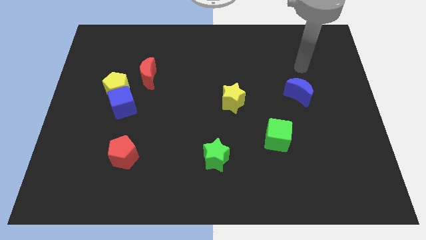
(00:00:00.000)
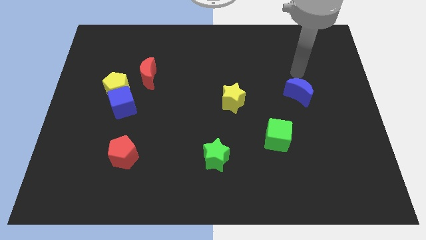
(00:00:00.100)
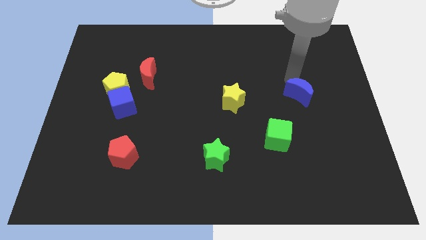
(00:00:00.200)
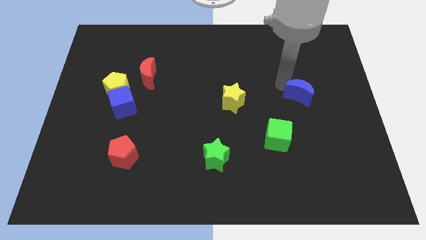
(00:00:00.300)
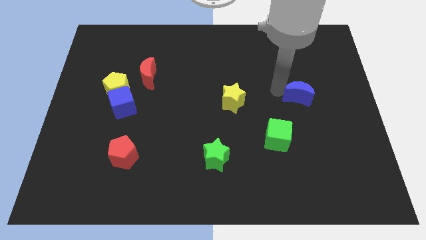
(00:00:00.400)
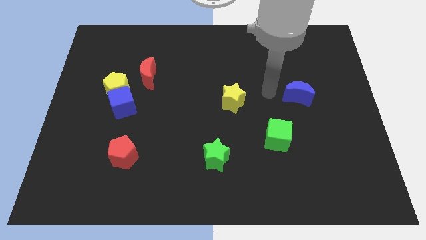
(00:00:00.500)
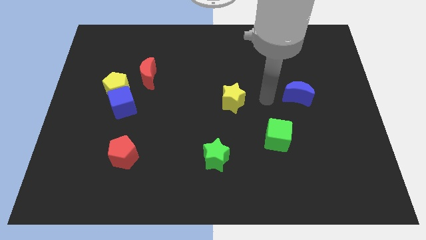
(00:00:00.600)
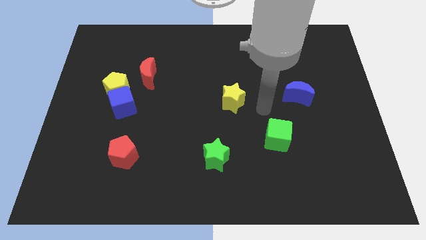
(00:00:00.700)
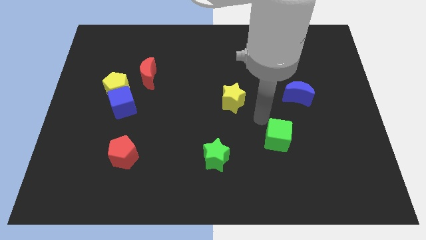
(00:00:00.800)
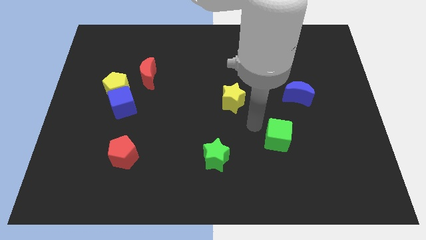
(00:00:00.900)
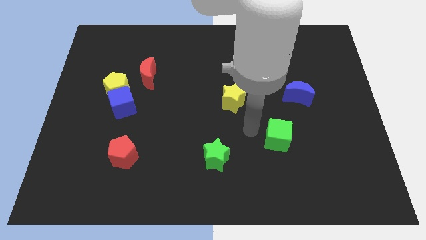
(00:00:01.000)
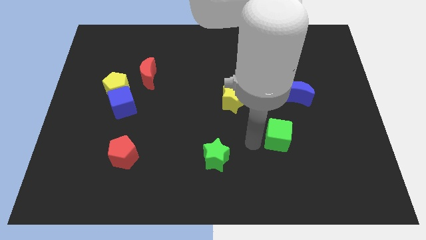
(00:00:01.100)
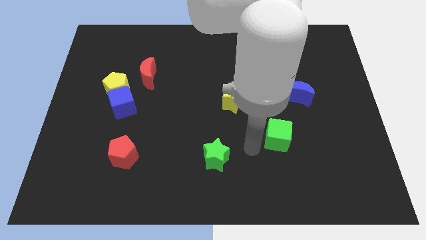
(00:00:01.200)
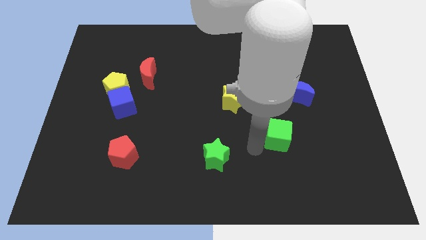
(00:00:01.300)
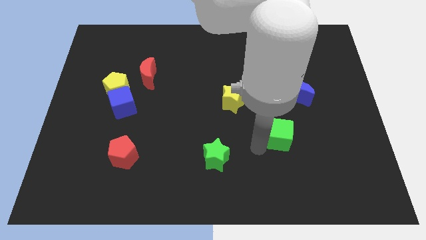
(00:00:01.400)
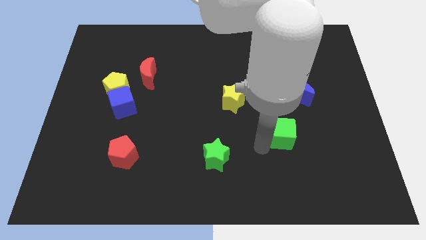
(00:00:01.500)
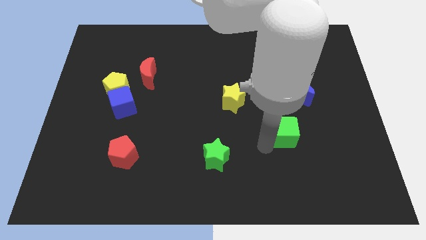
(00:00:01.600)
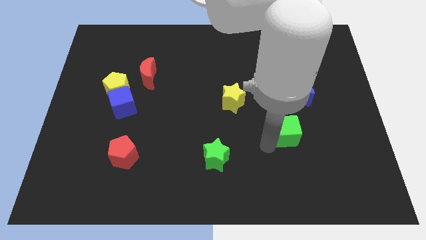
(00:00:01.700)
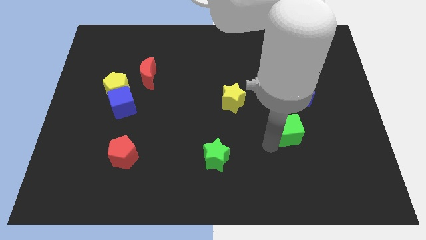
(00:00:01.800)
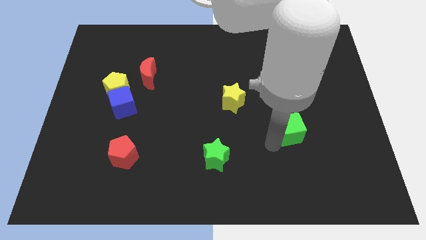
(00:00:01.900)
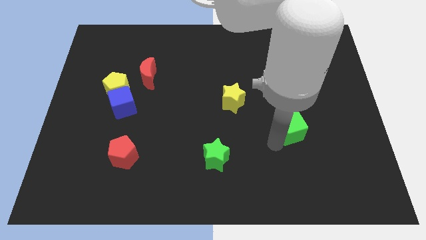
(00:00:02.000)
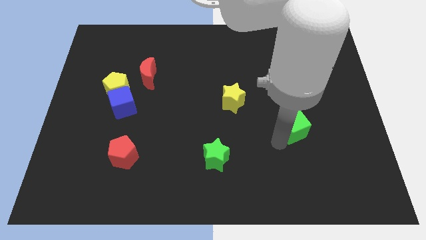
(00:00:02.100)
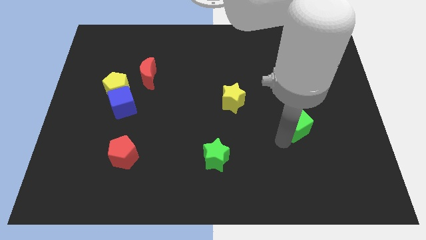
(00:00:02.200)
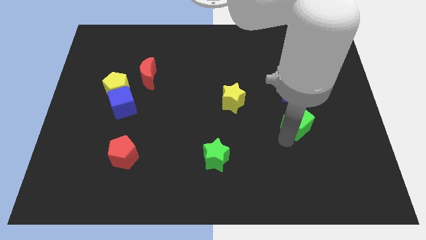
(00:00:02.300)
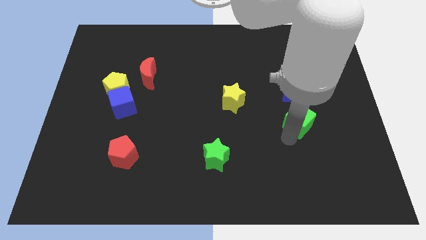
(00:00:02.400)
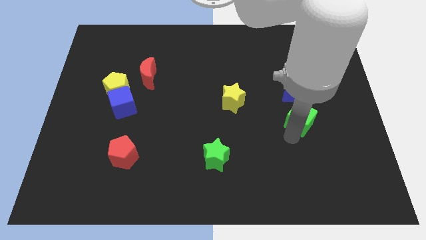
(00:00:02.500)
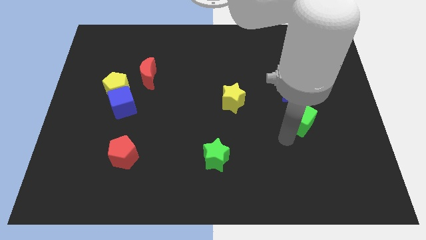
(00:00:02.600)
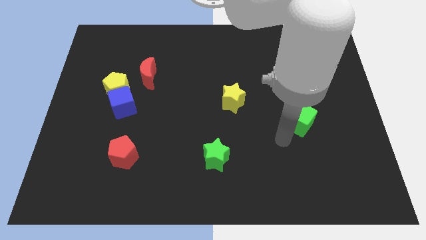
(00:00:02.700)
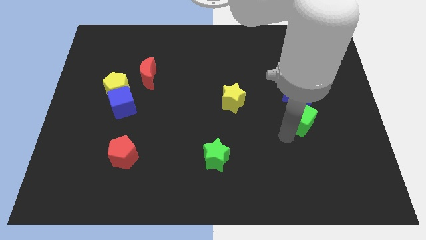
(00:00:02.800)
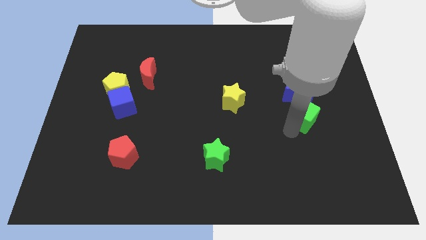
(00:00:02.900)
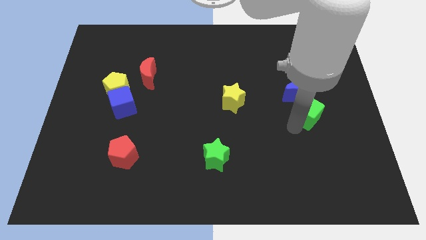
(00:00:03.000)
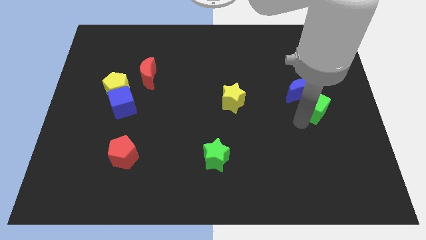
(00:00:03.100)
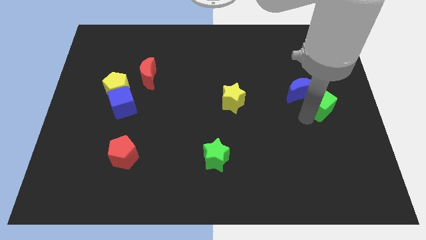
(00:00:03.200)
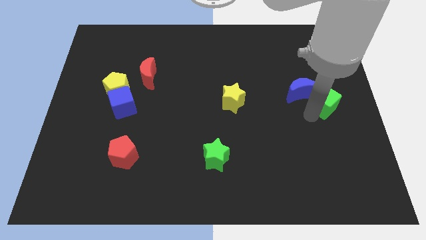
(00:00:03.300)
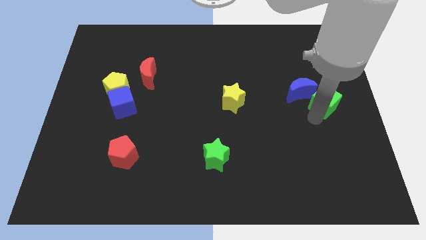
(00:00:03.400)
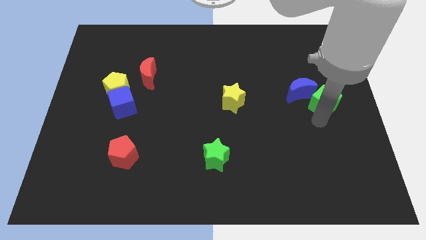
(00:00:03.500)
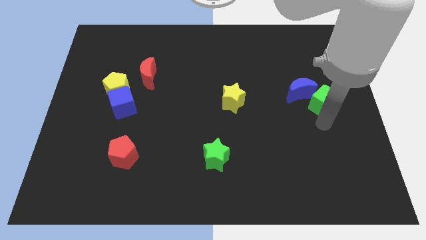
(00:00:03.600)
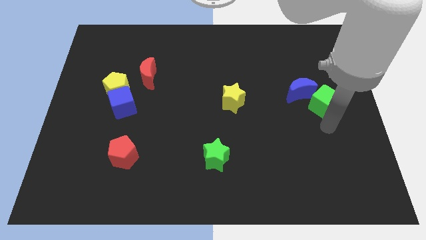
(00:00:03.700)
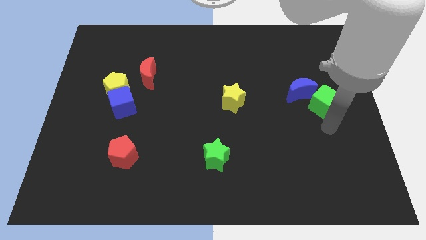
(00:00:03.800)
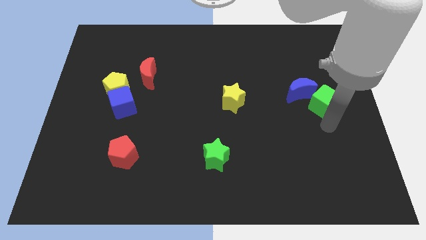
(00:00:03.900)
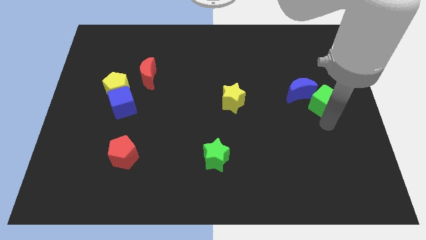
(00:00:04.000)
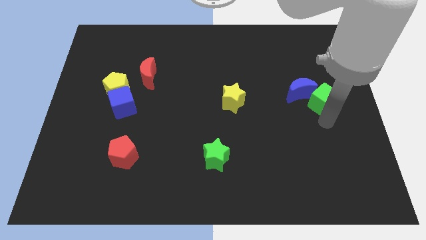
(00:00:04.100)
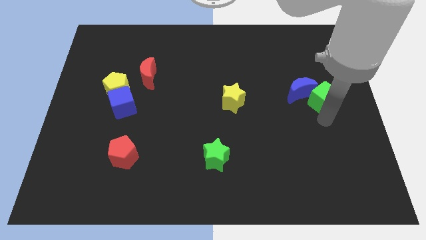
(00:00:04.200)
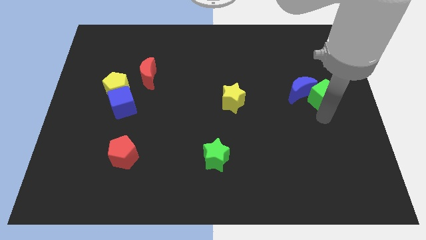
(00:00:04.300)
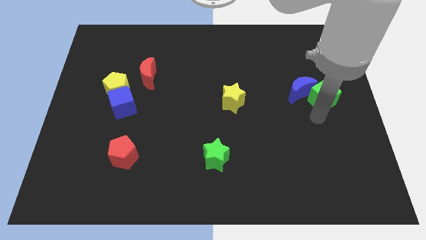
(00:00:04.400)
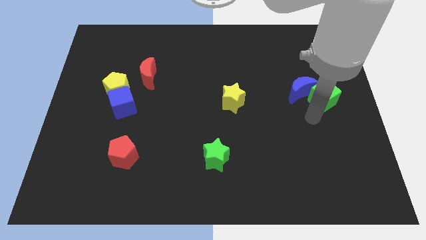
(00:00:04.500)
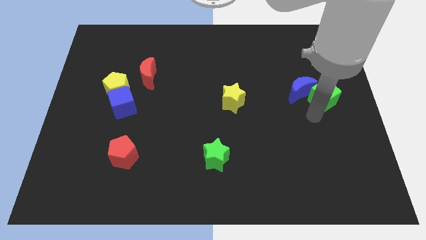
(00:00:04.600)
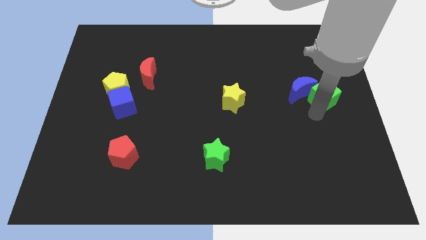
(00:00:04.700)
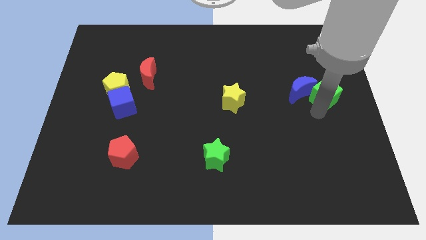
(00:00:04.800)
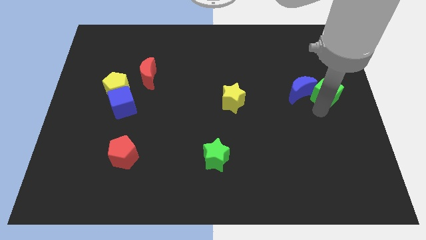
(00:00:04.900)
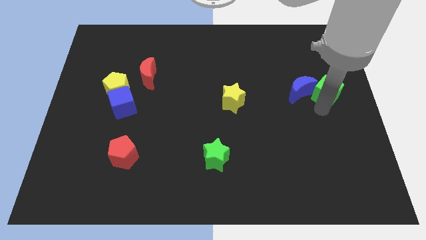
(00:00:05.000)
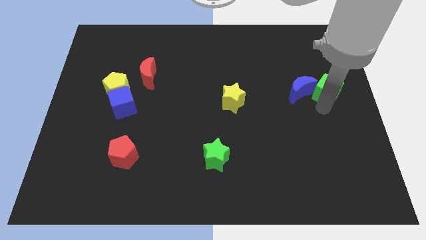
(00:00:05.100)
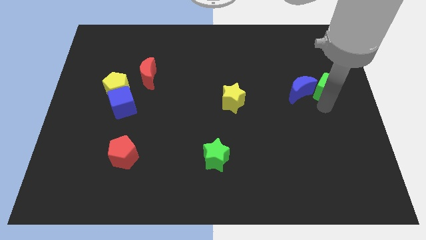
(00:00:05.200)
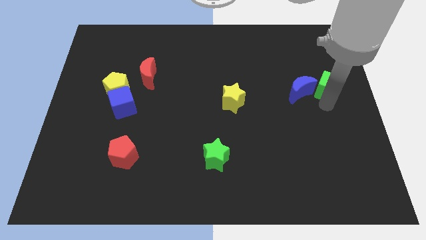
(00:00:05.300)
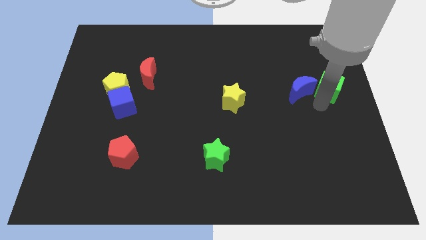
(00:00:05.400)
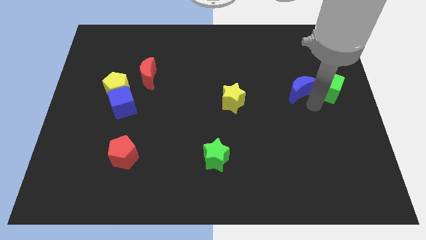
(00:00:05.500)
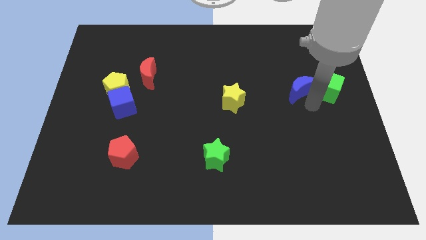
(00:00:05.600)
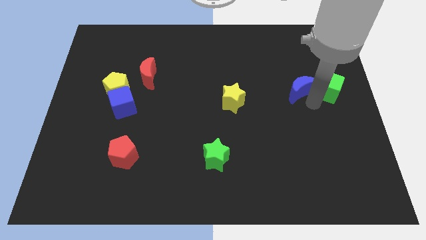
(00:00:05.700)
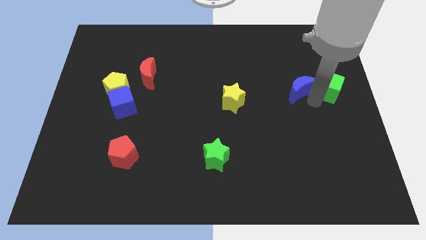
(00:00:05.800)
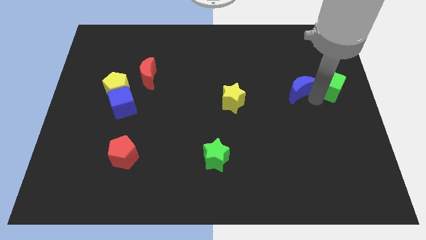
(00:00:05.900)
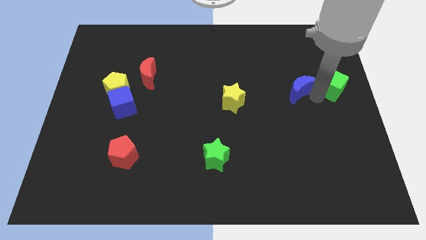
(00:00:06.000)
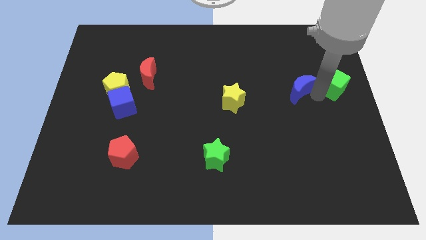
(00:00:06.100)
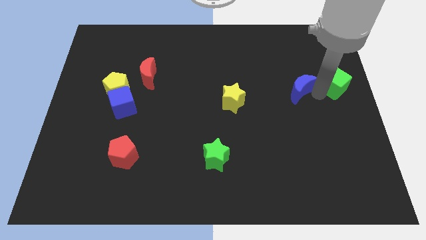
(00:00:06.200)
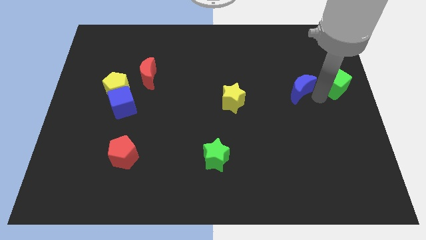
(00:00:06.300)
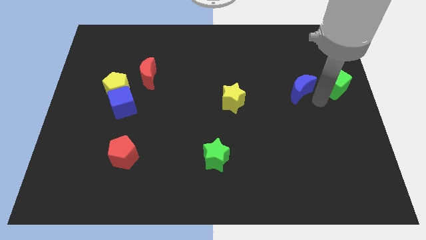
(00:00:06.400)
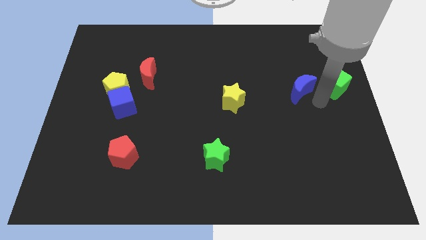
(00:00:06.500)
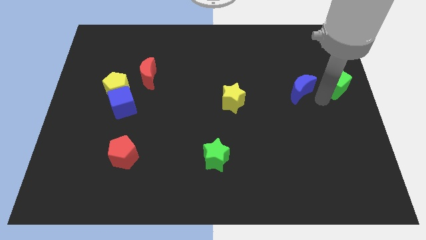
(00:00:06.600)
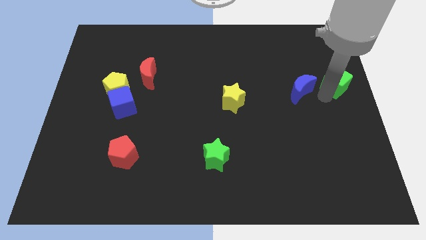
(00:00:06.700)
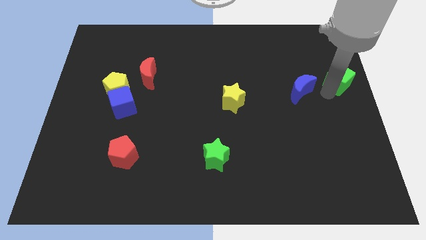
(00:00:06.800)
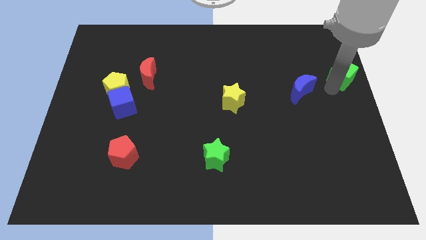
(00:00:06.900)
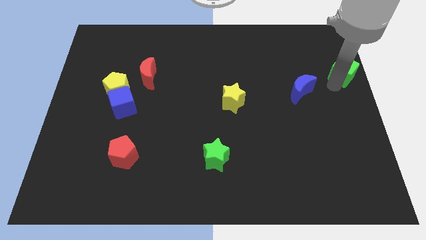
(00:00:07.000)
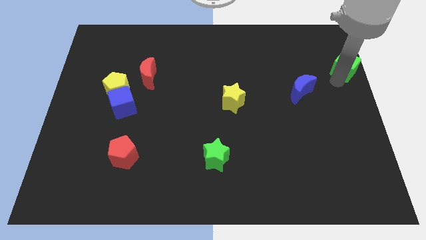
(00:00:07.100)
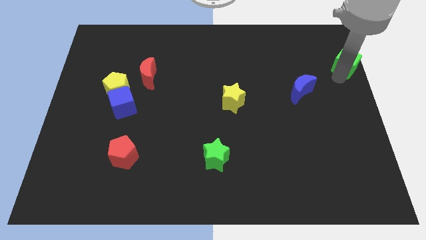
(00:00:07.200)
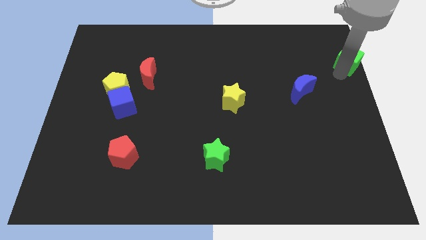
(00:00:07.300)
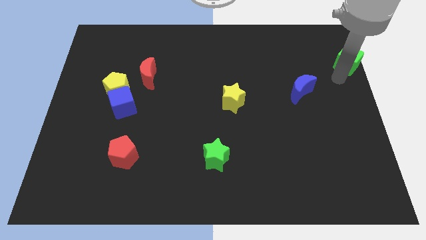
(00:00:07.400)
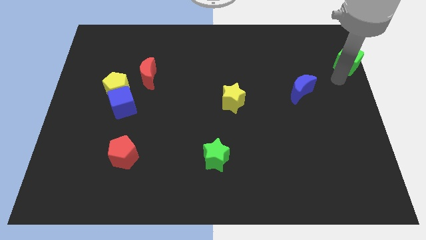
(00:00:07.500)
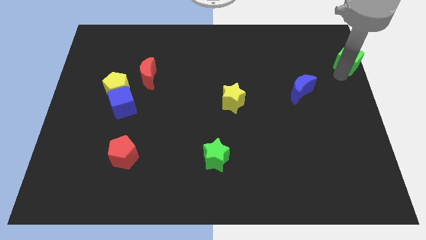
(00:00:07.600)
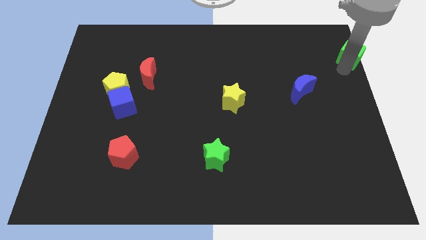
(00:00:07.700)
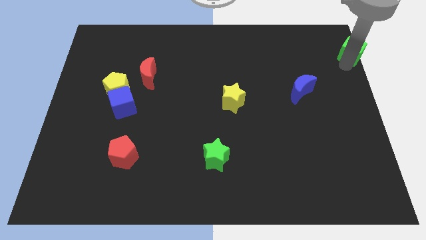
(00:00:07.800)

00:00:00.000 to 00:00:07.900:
slide the green cube to the upper right corner
